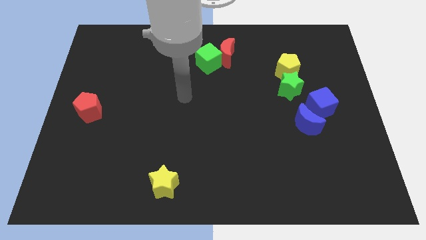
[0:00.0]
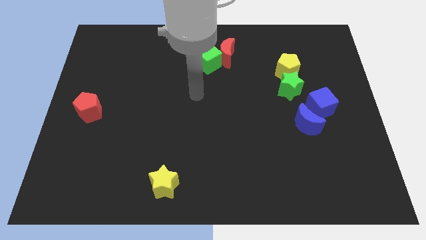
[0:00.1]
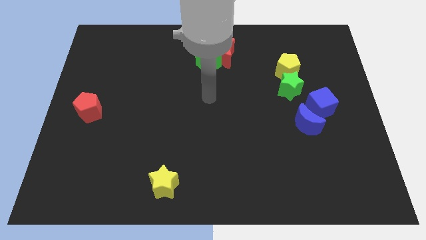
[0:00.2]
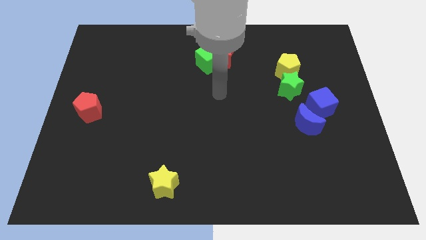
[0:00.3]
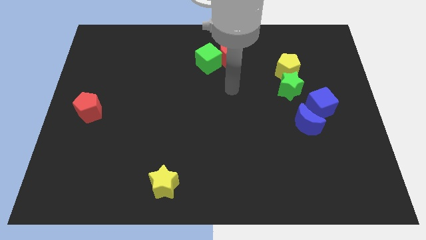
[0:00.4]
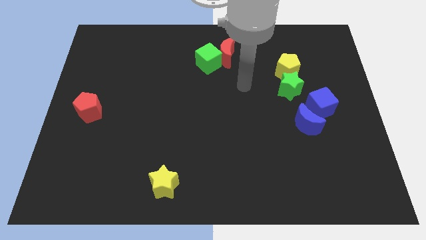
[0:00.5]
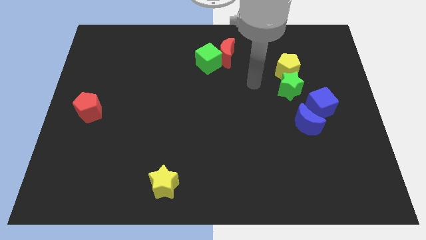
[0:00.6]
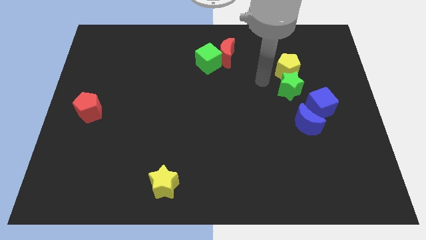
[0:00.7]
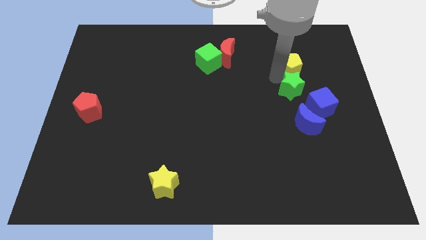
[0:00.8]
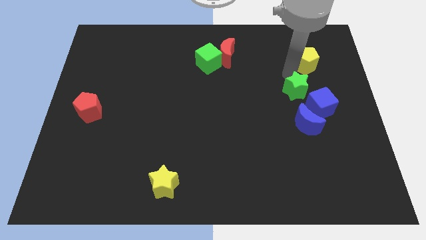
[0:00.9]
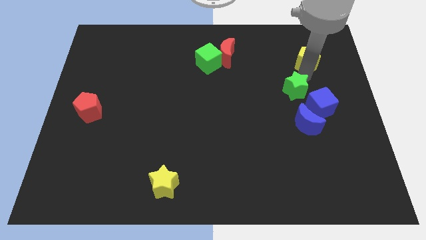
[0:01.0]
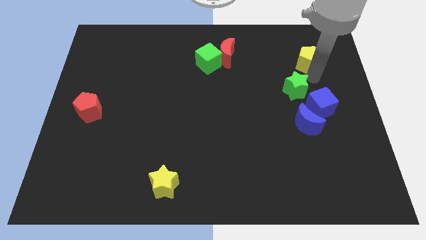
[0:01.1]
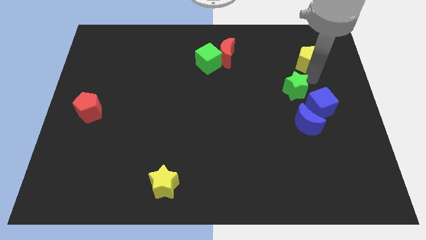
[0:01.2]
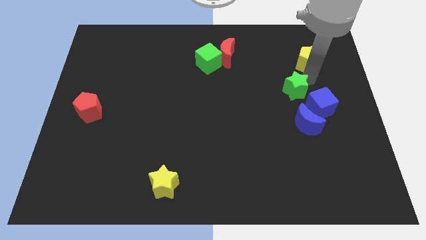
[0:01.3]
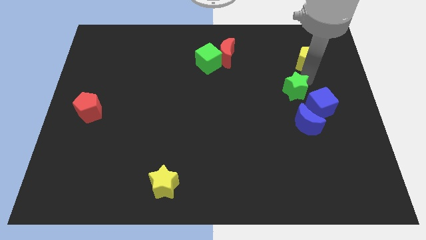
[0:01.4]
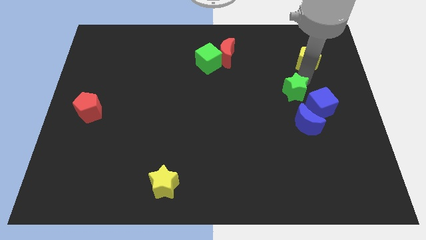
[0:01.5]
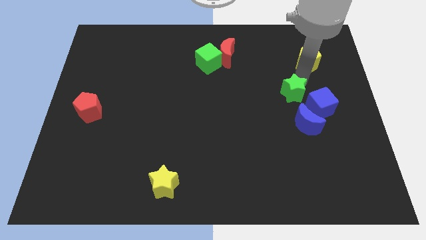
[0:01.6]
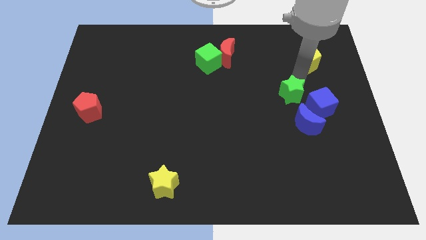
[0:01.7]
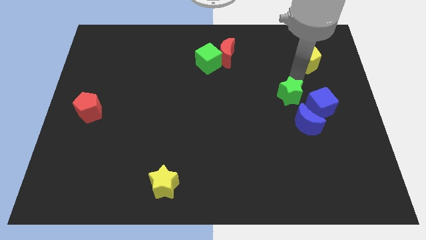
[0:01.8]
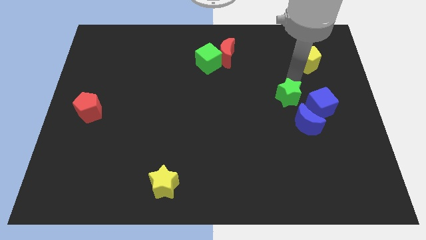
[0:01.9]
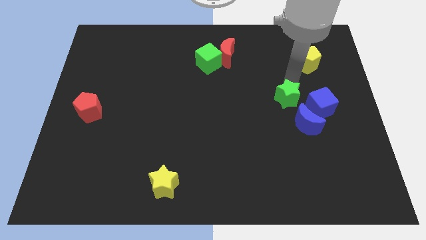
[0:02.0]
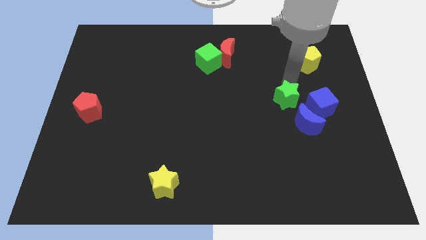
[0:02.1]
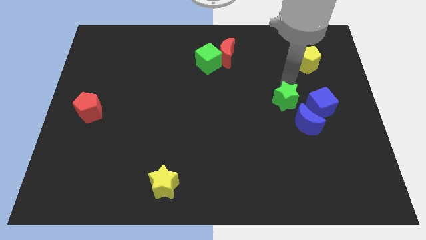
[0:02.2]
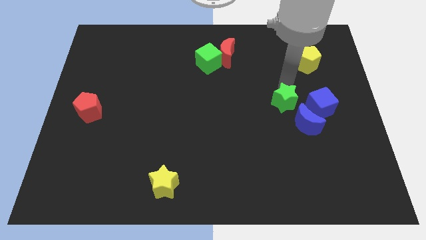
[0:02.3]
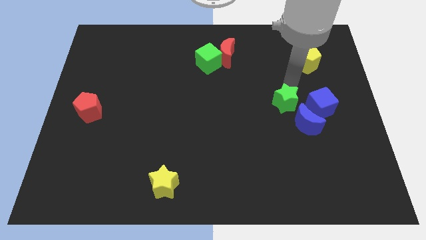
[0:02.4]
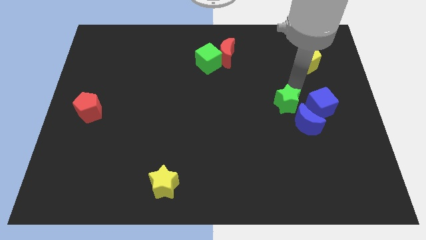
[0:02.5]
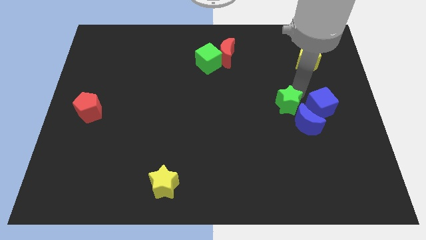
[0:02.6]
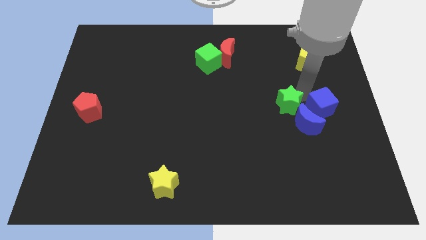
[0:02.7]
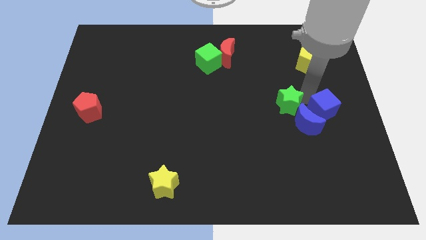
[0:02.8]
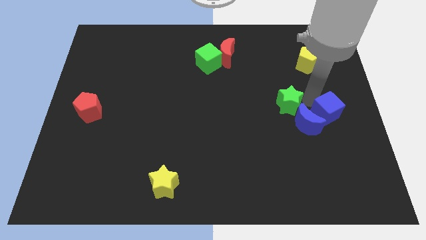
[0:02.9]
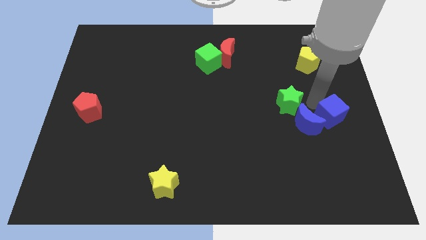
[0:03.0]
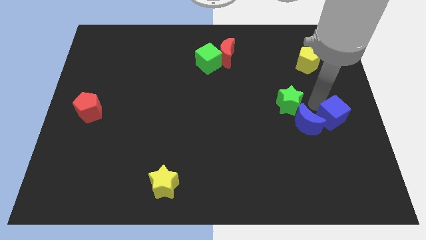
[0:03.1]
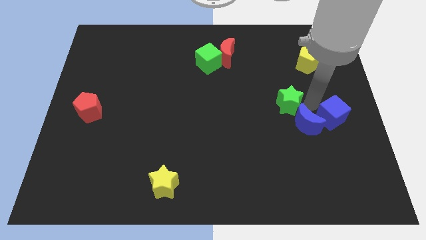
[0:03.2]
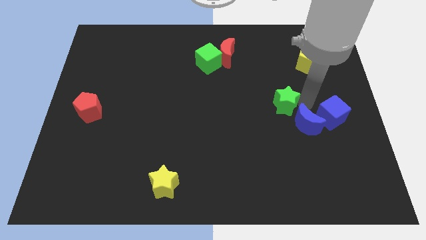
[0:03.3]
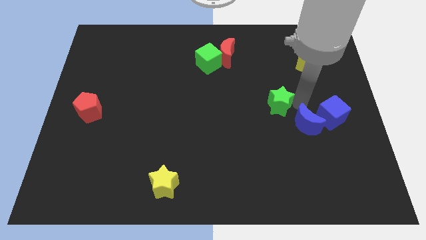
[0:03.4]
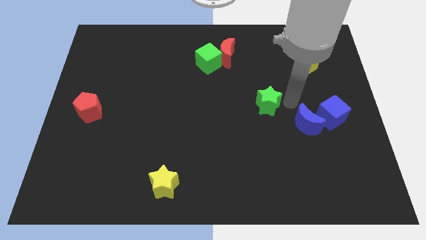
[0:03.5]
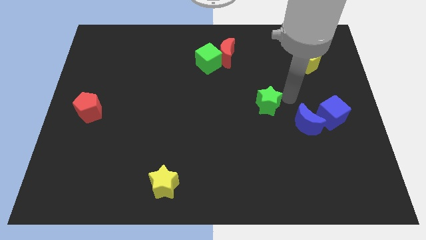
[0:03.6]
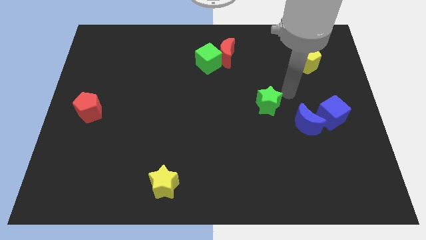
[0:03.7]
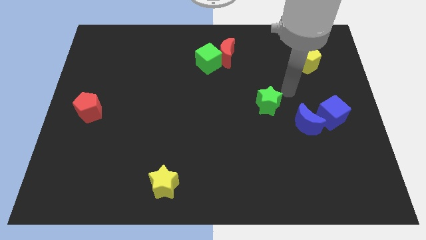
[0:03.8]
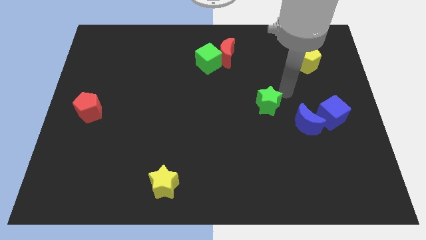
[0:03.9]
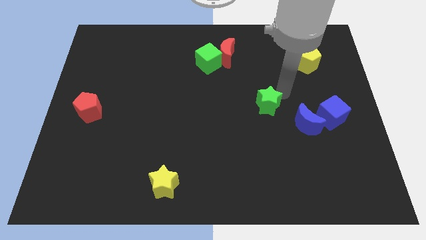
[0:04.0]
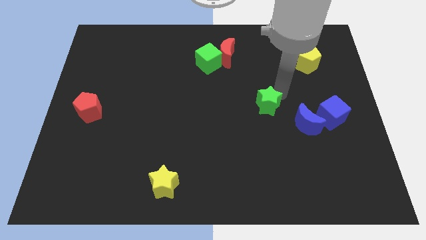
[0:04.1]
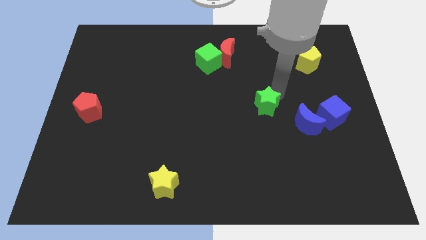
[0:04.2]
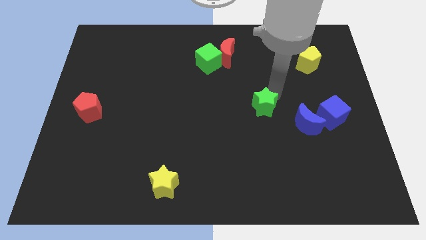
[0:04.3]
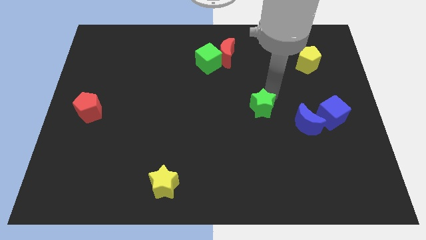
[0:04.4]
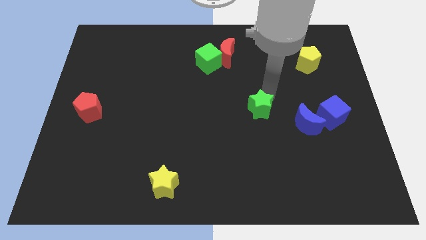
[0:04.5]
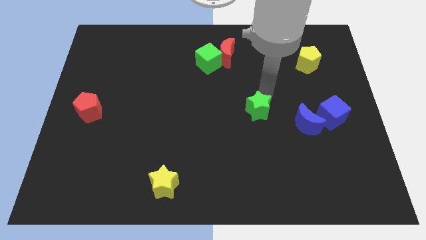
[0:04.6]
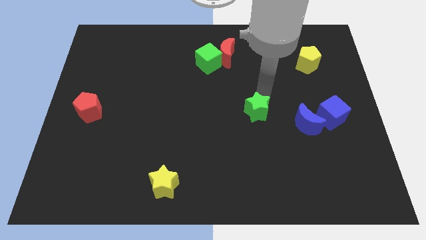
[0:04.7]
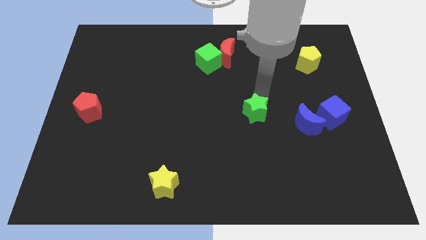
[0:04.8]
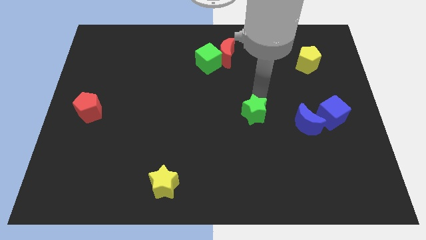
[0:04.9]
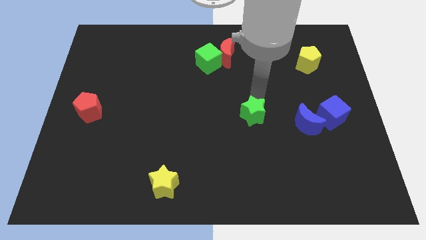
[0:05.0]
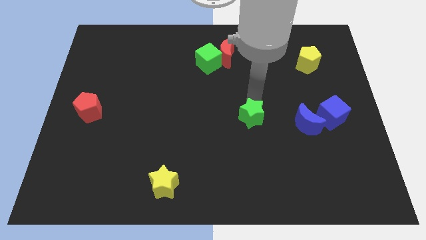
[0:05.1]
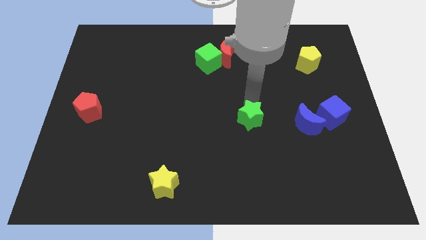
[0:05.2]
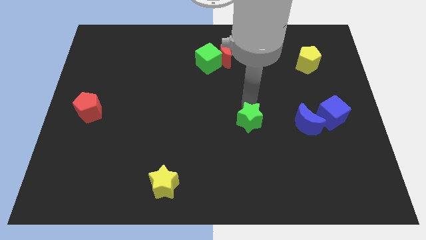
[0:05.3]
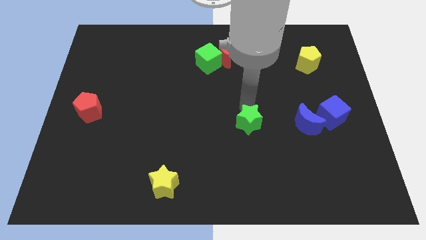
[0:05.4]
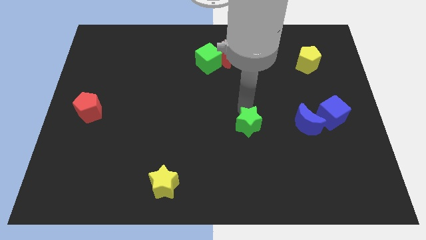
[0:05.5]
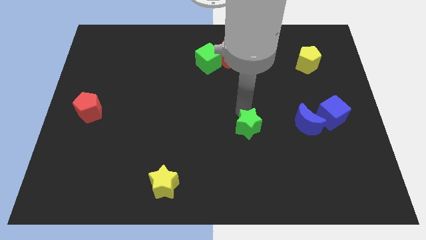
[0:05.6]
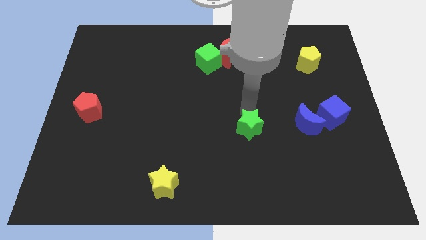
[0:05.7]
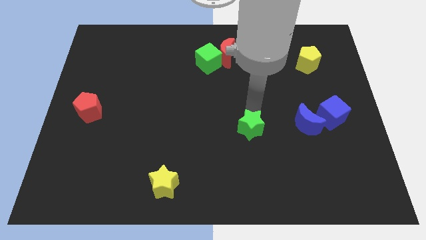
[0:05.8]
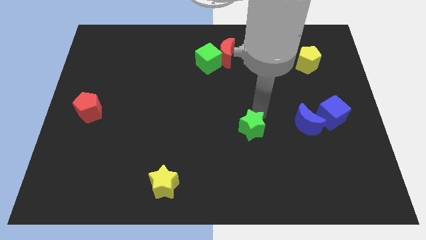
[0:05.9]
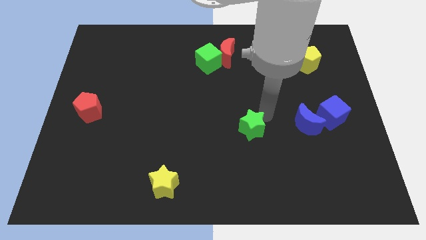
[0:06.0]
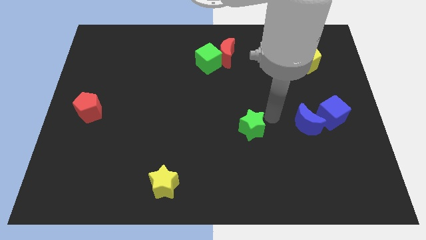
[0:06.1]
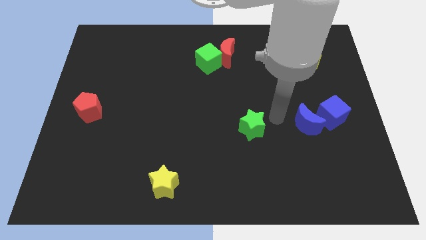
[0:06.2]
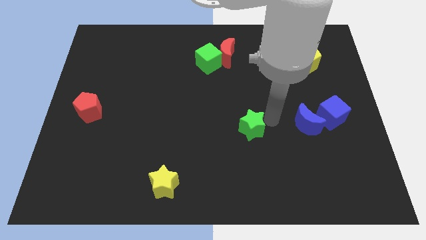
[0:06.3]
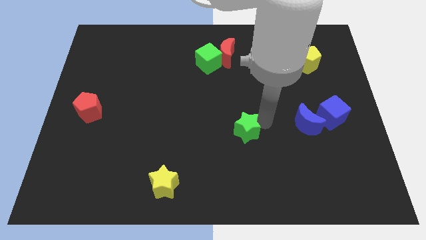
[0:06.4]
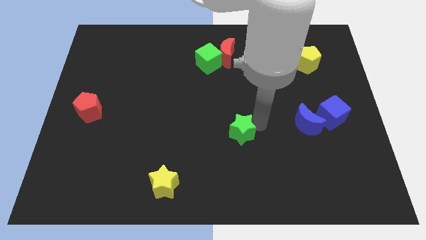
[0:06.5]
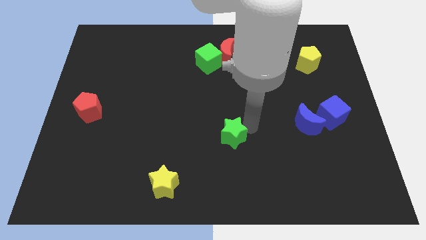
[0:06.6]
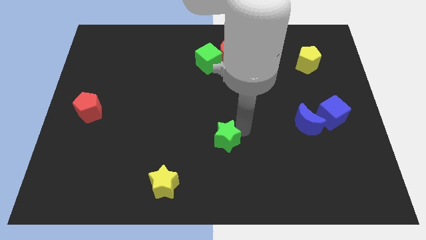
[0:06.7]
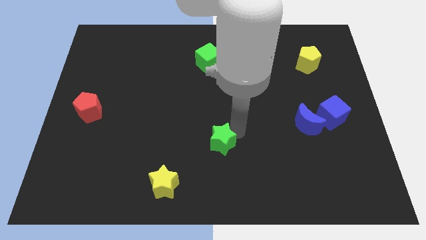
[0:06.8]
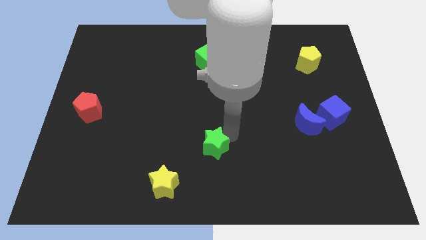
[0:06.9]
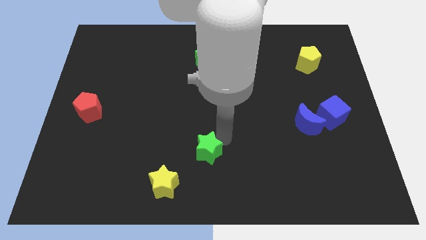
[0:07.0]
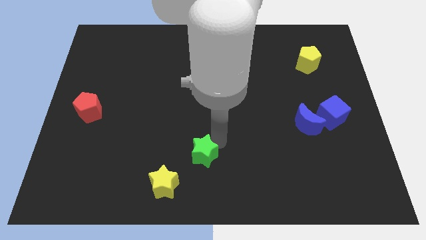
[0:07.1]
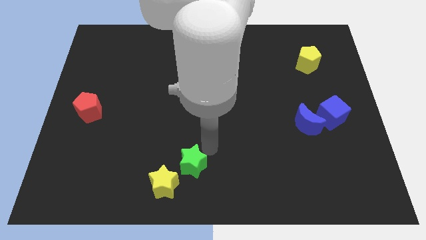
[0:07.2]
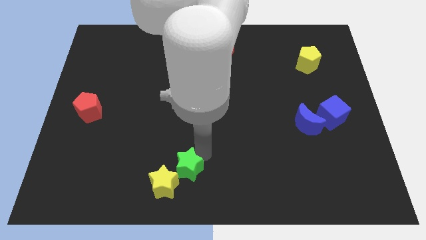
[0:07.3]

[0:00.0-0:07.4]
move the green star close to the yellow star

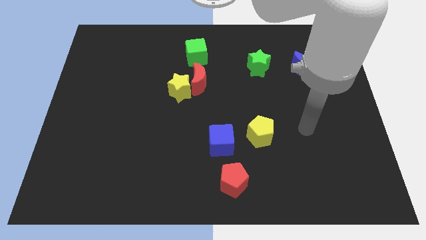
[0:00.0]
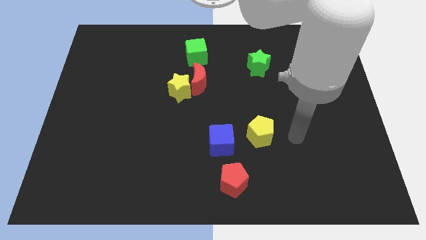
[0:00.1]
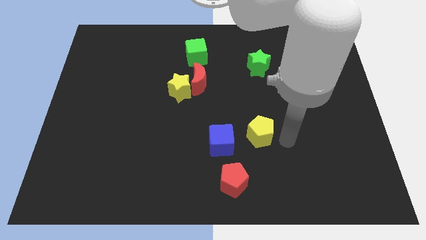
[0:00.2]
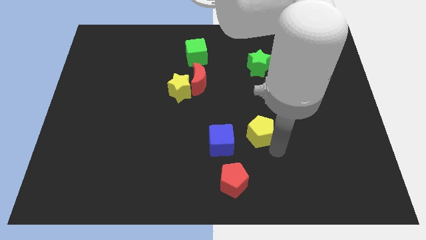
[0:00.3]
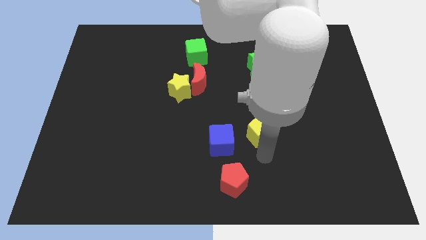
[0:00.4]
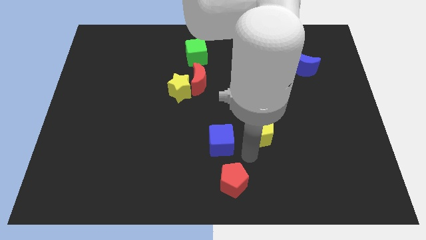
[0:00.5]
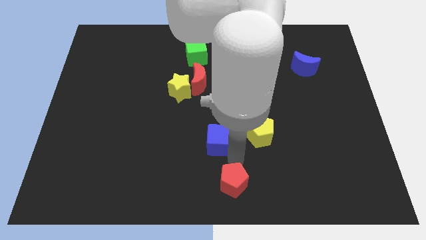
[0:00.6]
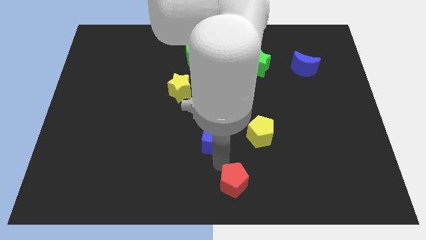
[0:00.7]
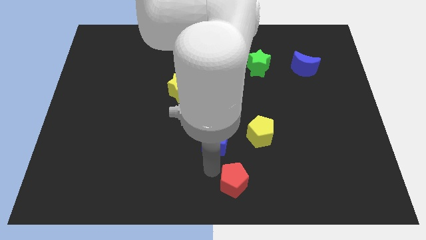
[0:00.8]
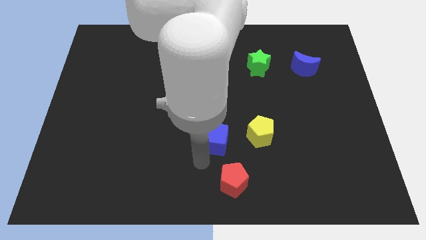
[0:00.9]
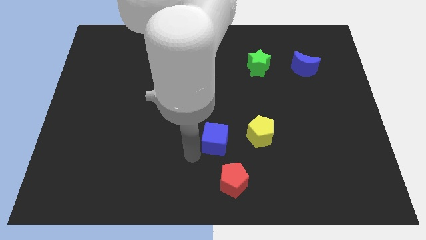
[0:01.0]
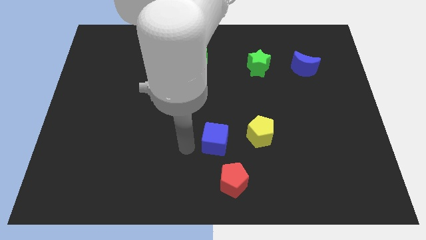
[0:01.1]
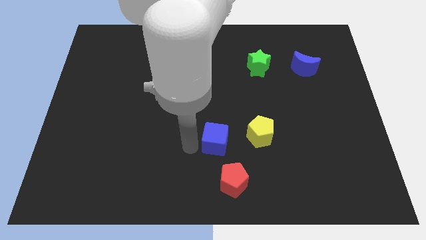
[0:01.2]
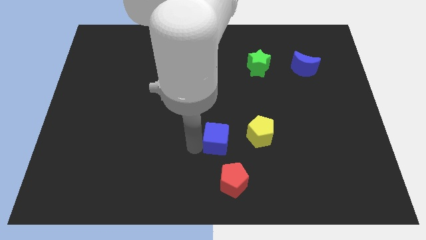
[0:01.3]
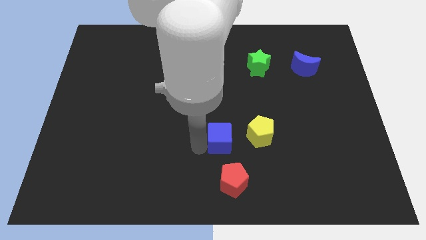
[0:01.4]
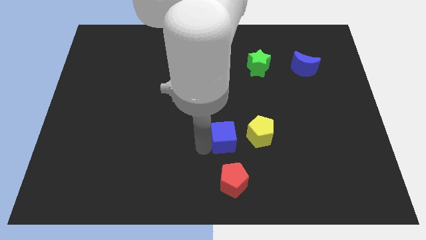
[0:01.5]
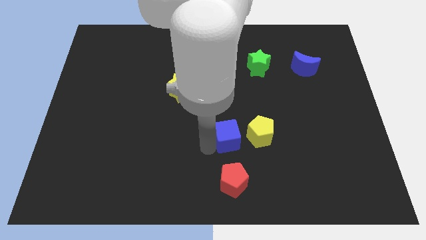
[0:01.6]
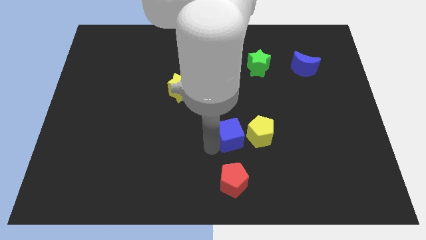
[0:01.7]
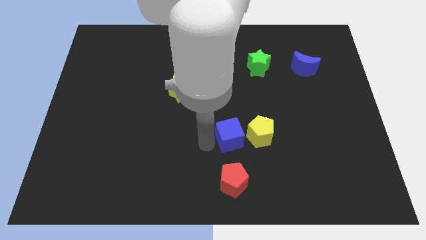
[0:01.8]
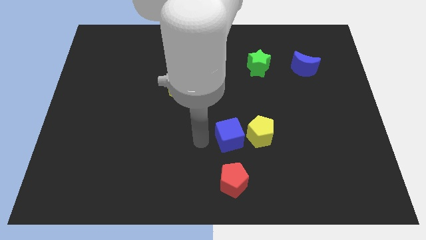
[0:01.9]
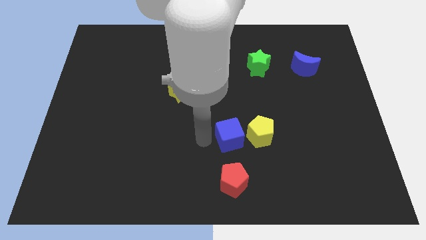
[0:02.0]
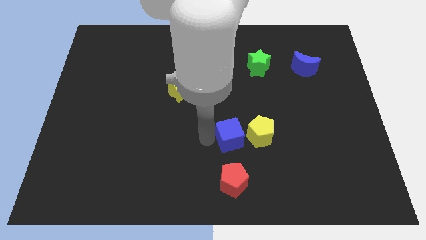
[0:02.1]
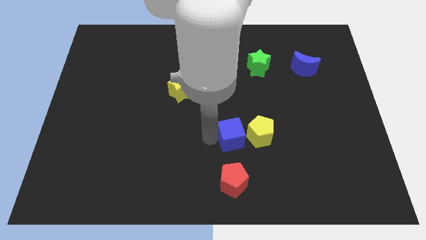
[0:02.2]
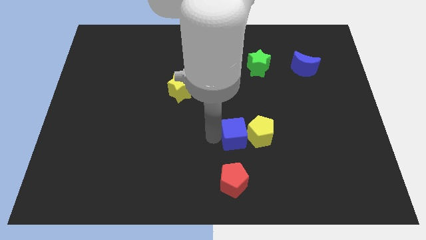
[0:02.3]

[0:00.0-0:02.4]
put the blue cube towards the yellow pentagon
